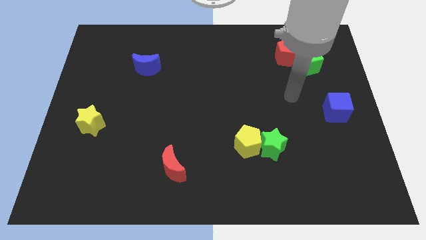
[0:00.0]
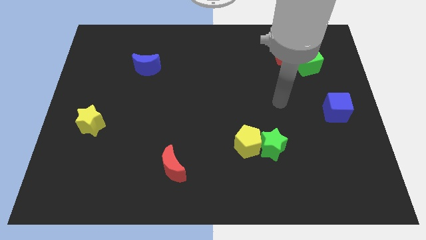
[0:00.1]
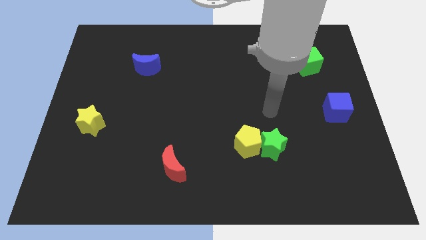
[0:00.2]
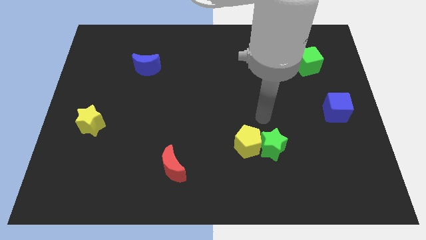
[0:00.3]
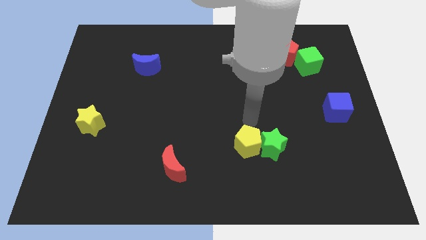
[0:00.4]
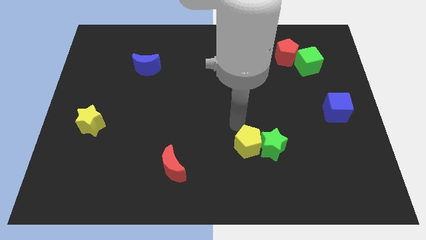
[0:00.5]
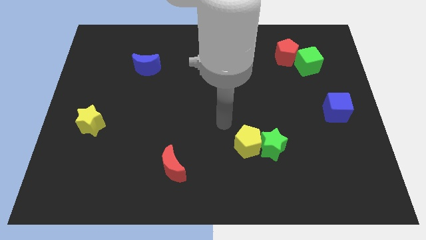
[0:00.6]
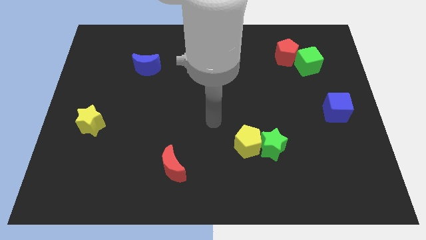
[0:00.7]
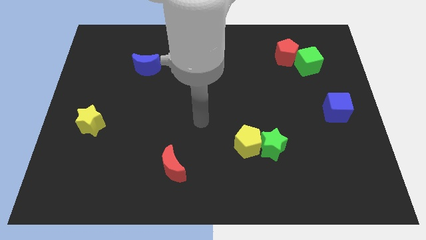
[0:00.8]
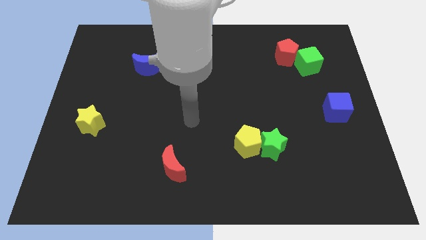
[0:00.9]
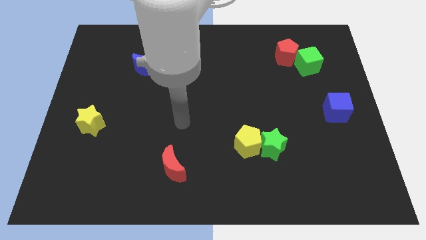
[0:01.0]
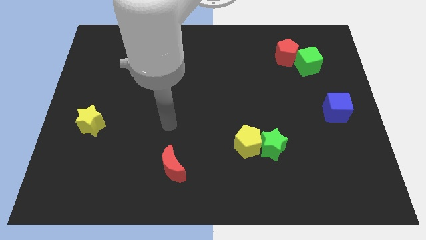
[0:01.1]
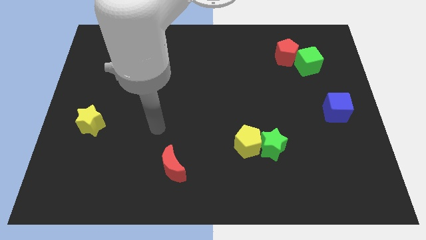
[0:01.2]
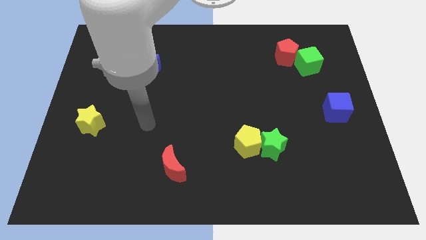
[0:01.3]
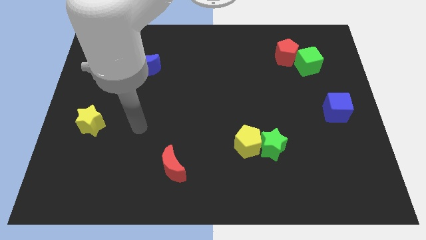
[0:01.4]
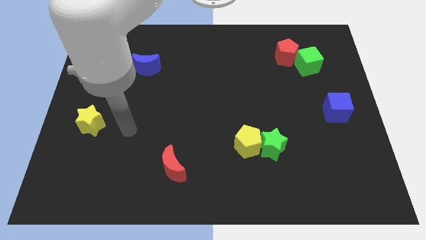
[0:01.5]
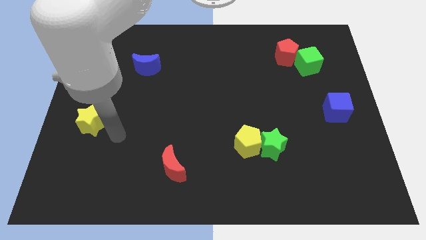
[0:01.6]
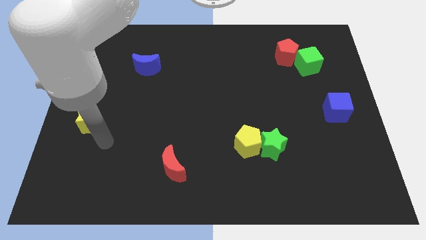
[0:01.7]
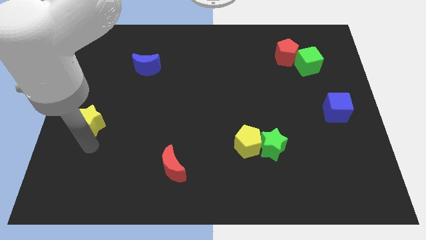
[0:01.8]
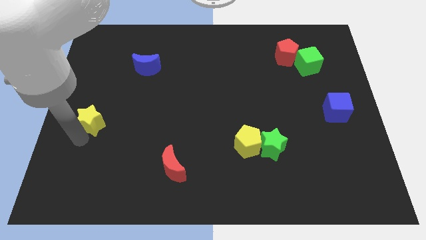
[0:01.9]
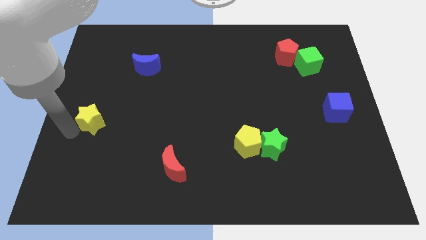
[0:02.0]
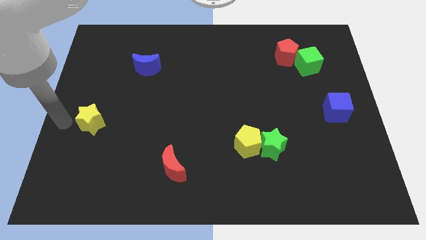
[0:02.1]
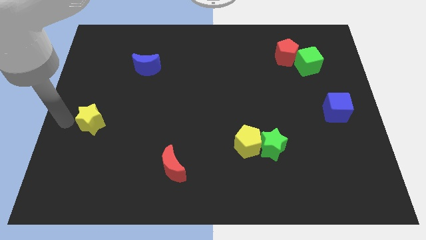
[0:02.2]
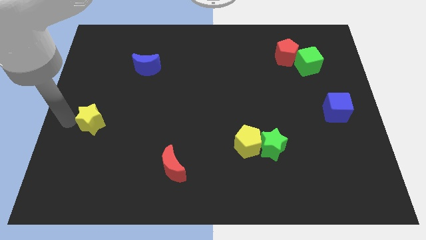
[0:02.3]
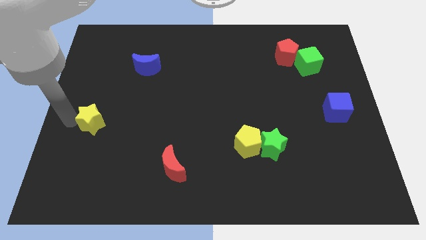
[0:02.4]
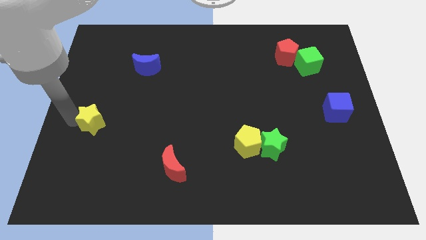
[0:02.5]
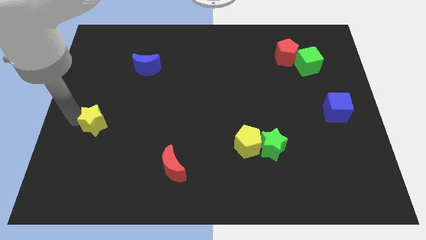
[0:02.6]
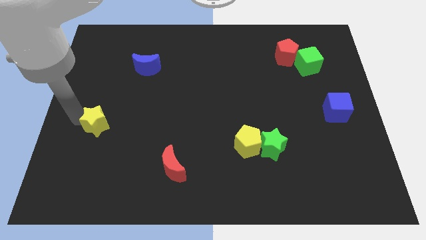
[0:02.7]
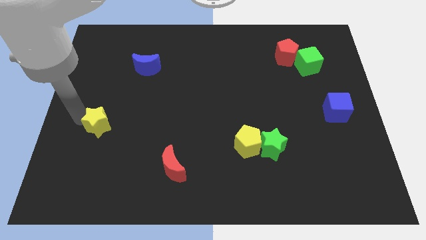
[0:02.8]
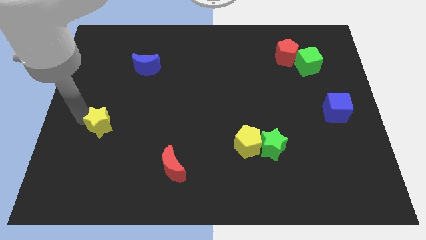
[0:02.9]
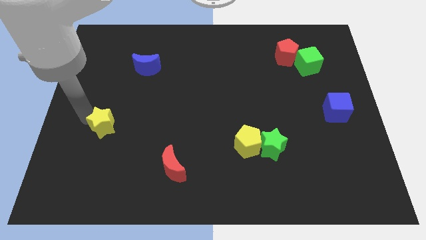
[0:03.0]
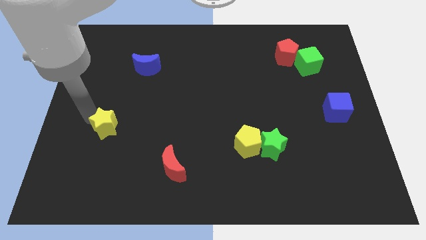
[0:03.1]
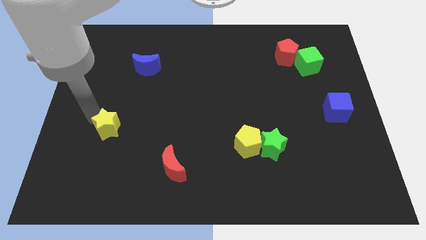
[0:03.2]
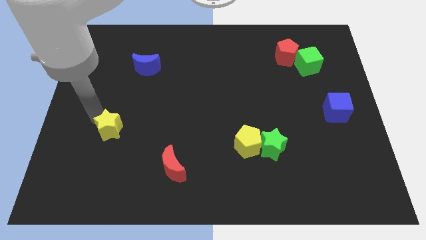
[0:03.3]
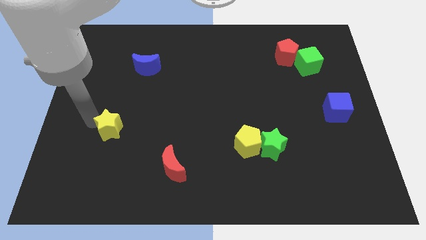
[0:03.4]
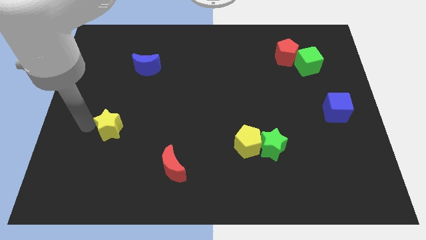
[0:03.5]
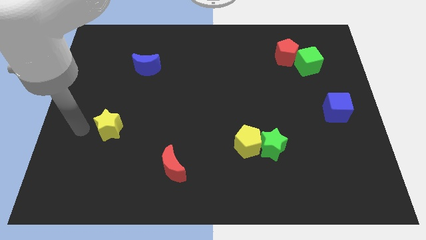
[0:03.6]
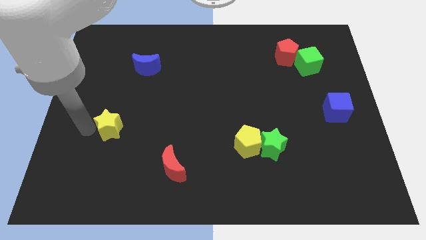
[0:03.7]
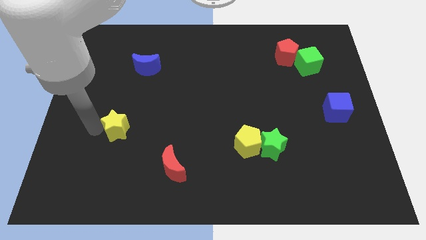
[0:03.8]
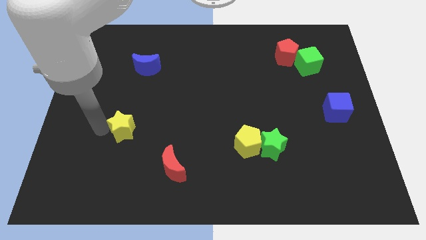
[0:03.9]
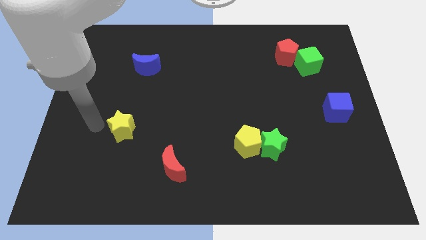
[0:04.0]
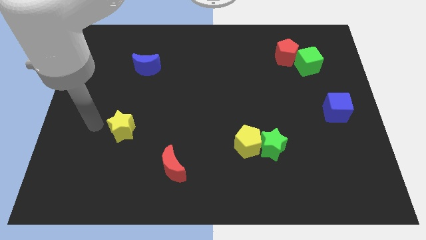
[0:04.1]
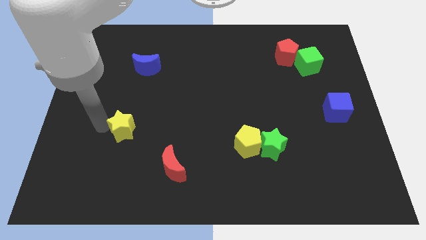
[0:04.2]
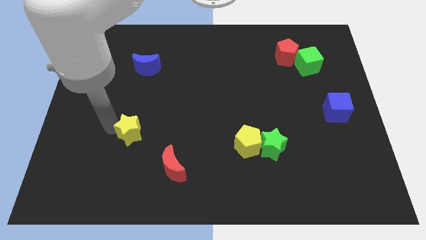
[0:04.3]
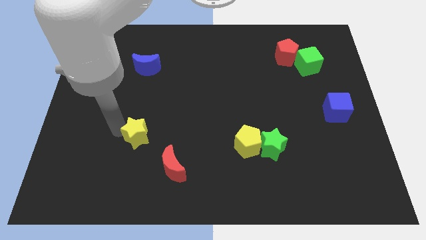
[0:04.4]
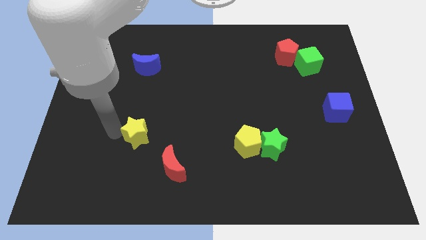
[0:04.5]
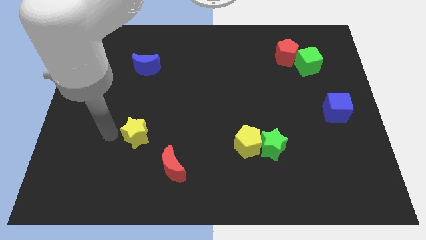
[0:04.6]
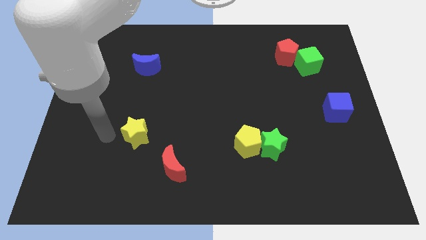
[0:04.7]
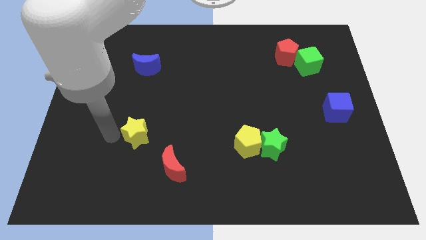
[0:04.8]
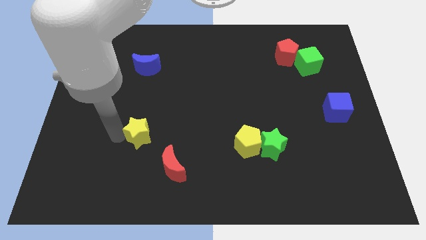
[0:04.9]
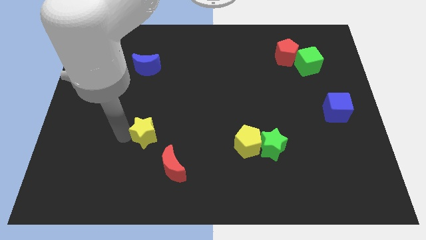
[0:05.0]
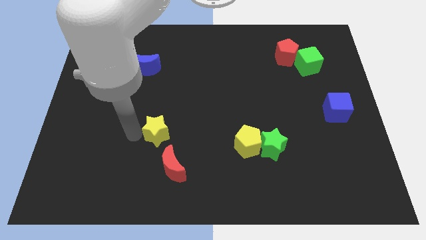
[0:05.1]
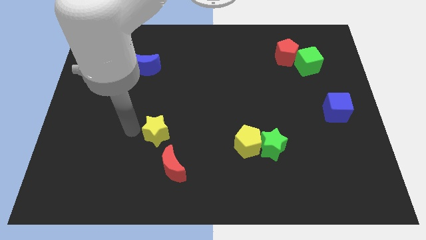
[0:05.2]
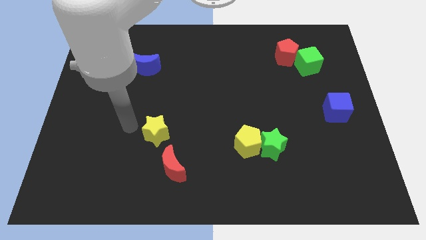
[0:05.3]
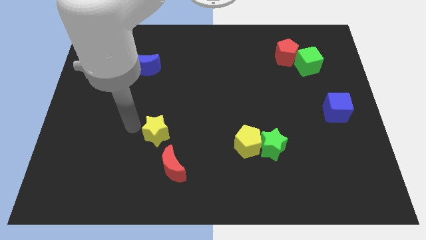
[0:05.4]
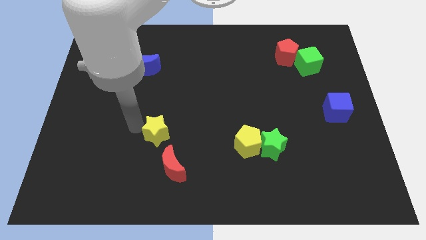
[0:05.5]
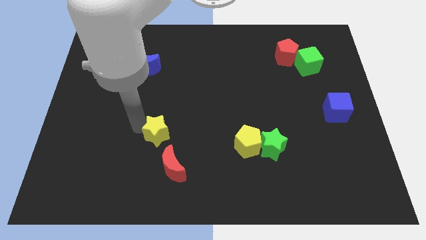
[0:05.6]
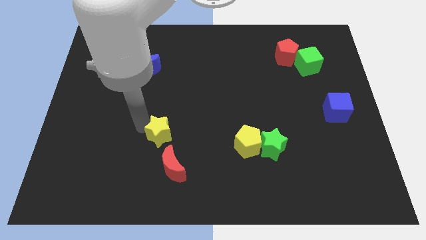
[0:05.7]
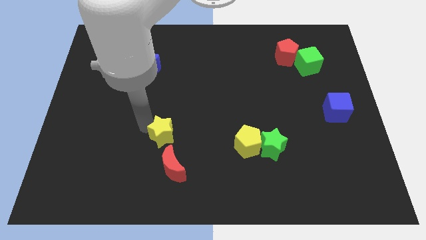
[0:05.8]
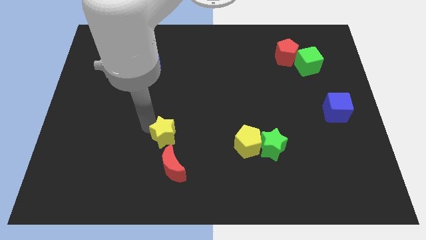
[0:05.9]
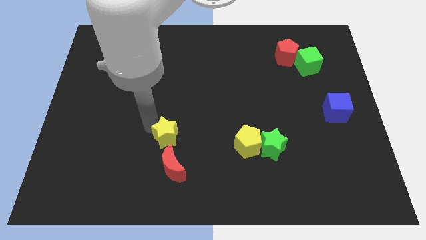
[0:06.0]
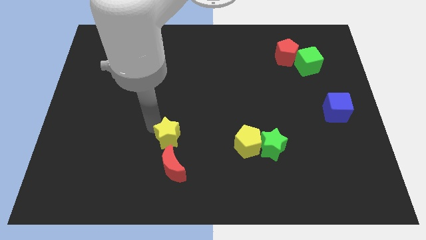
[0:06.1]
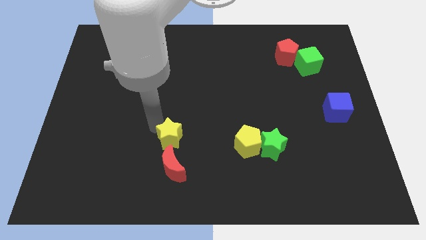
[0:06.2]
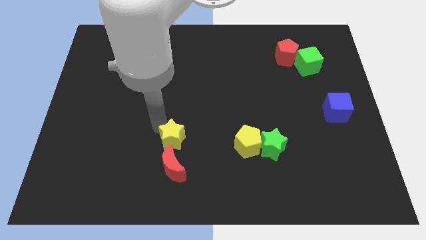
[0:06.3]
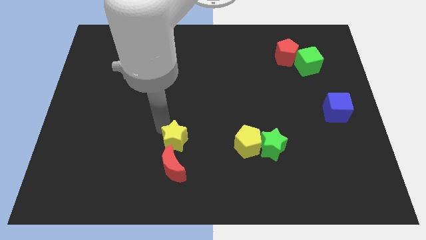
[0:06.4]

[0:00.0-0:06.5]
put the yellow star diagonally up and to the right of the red moon
